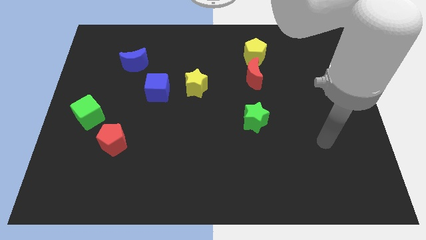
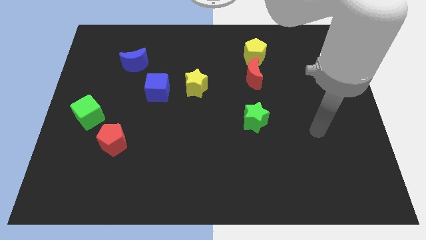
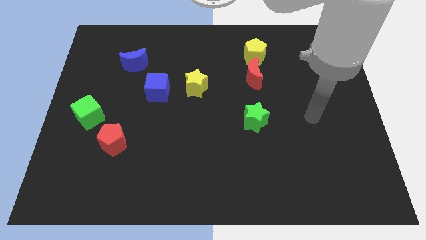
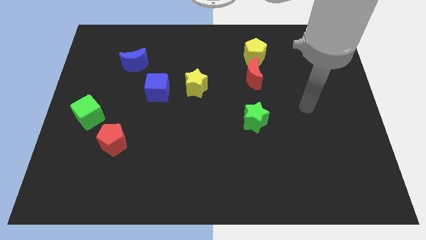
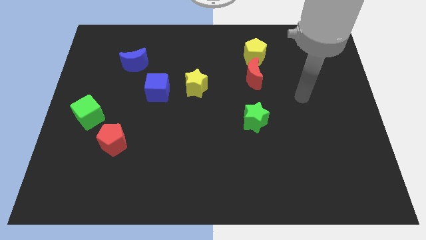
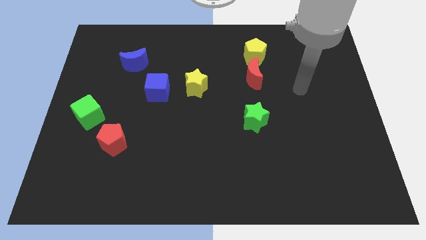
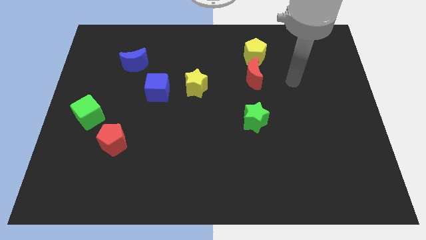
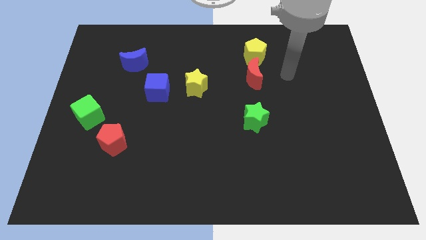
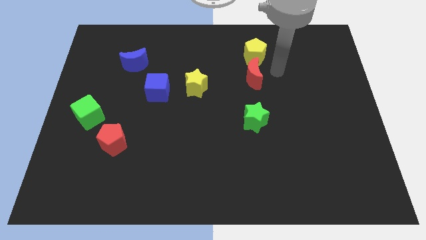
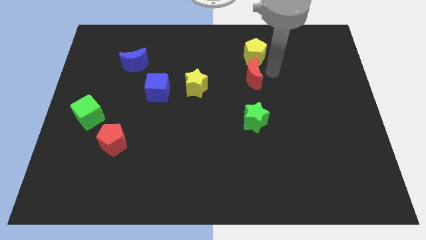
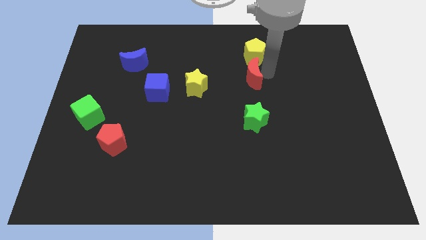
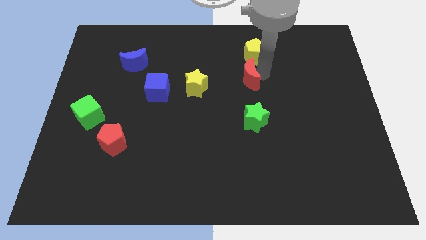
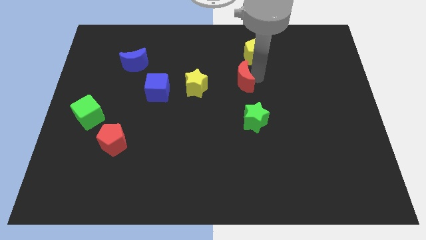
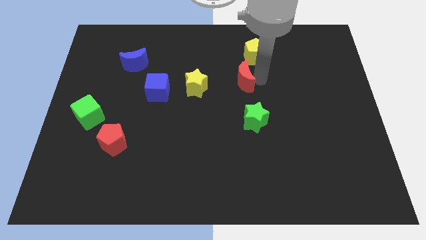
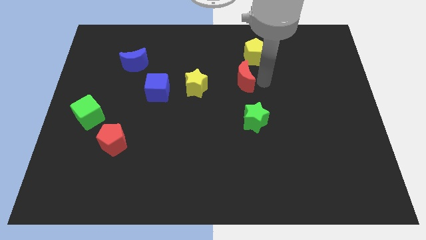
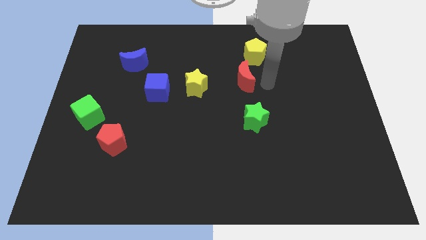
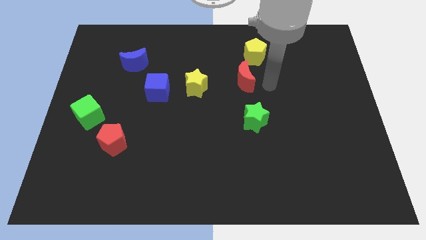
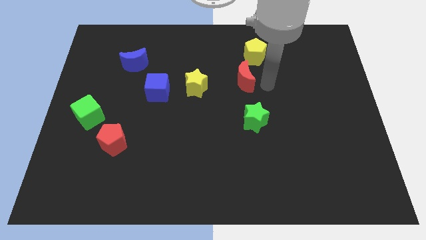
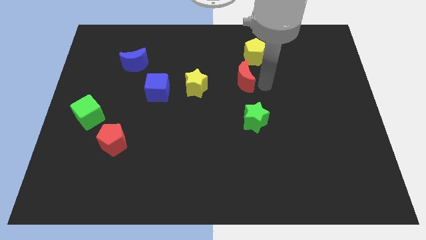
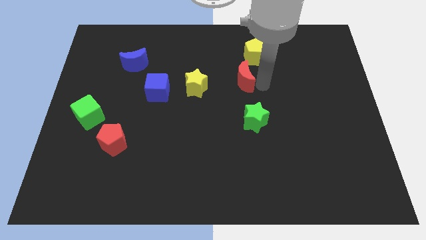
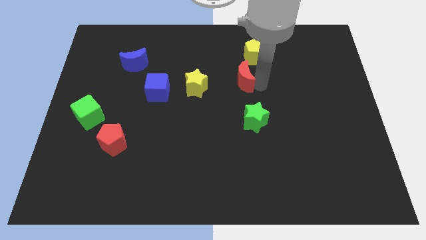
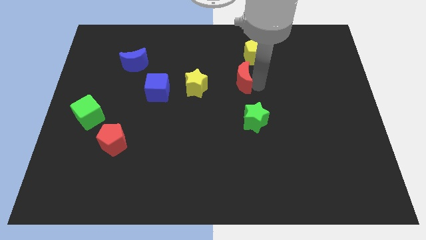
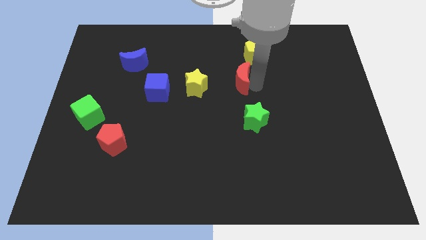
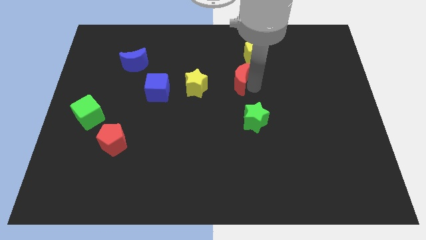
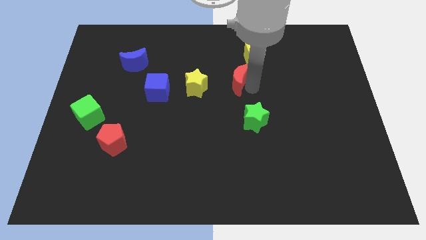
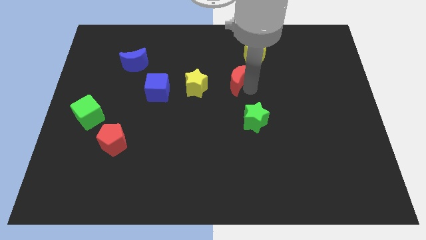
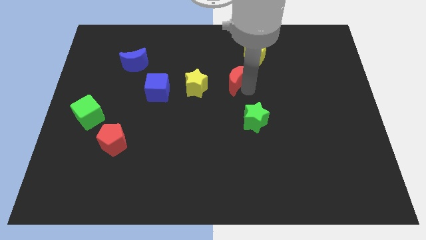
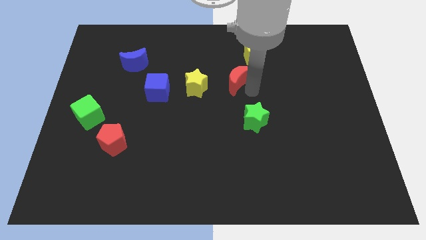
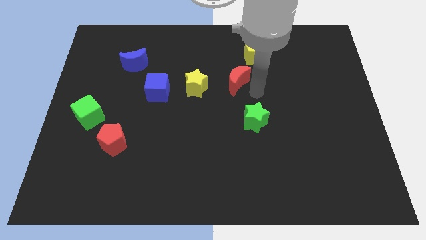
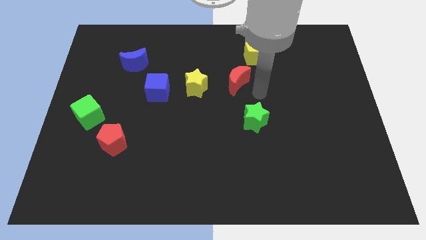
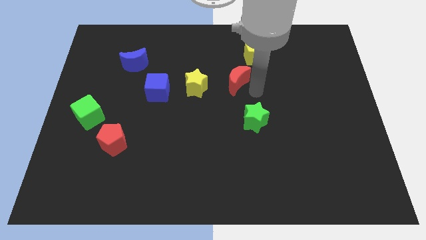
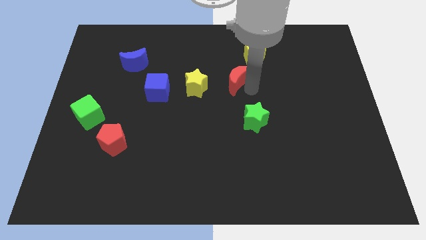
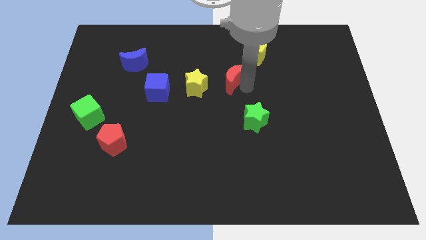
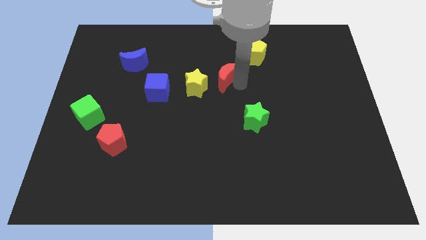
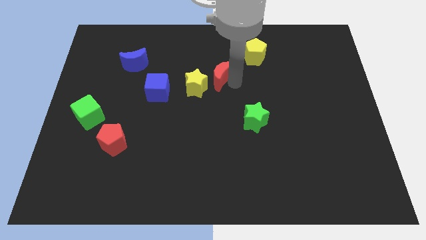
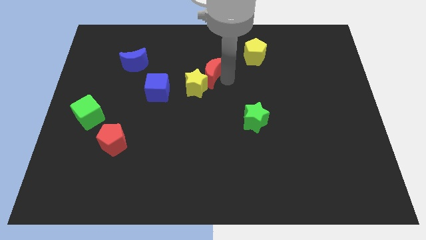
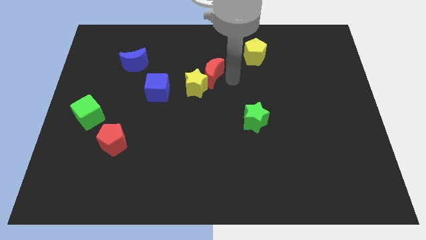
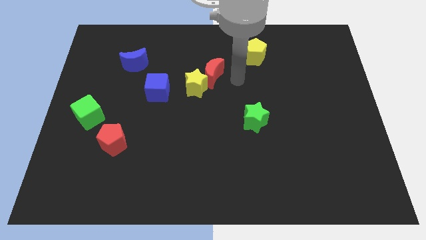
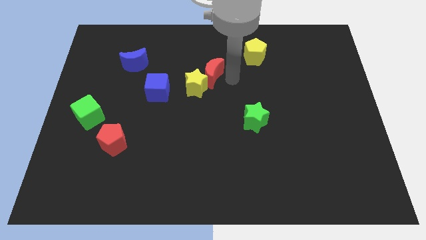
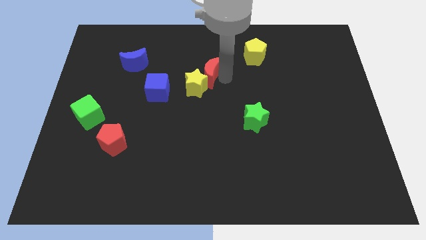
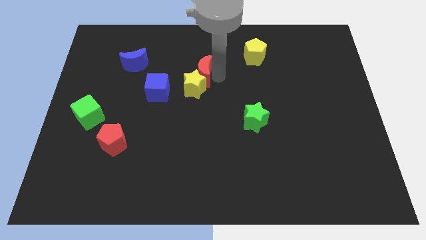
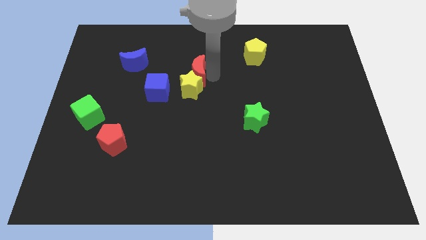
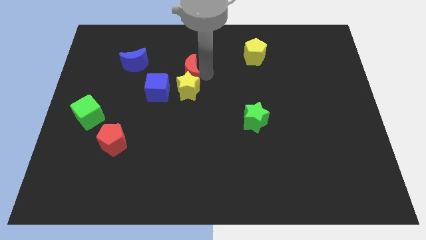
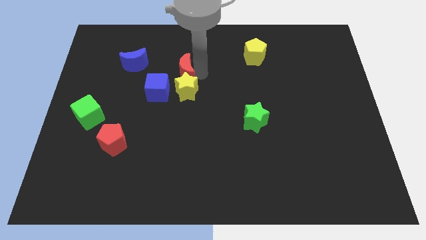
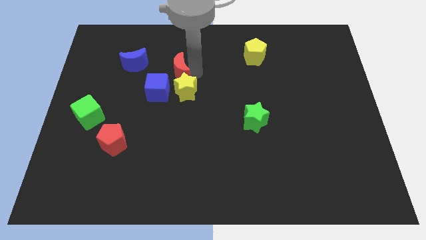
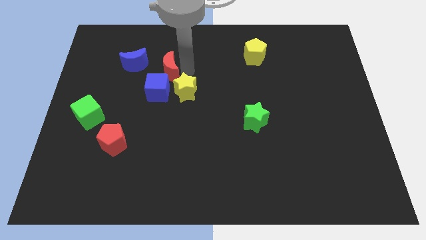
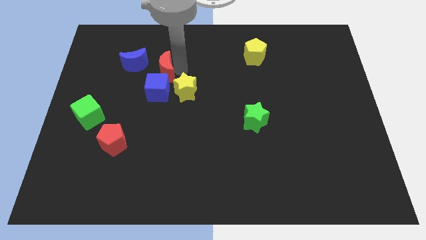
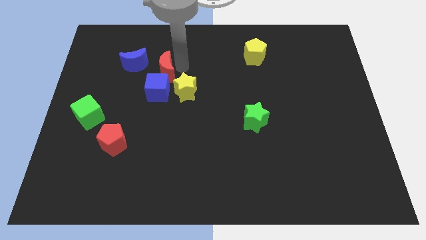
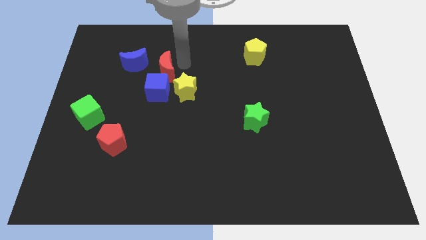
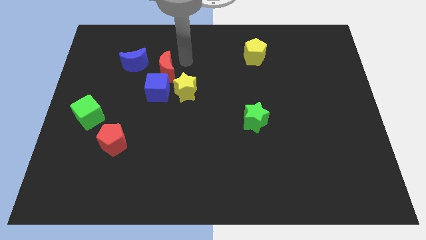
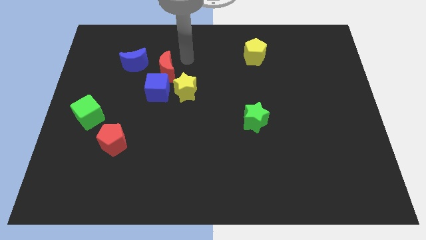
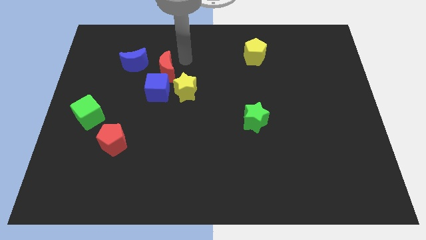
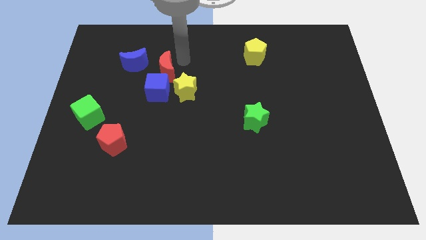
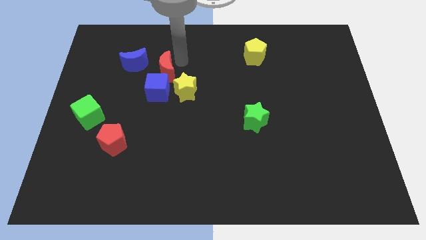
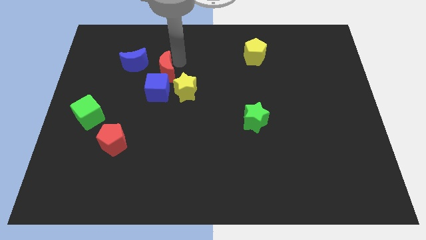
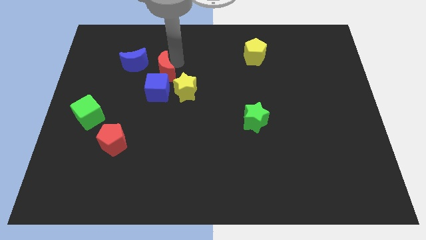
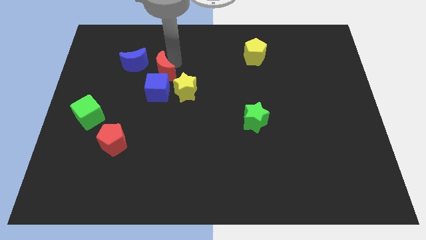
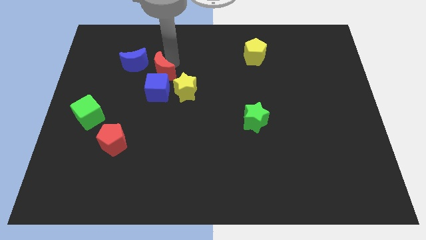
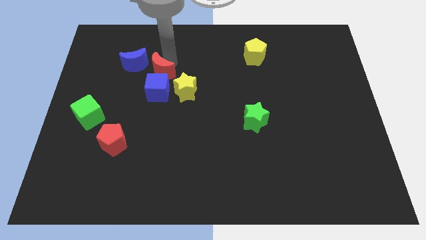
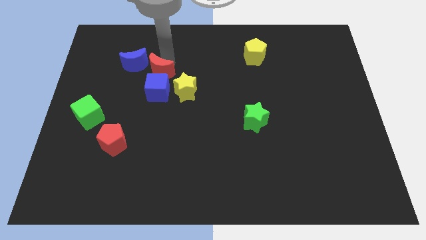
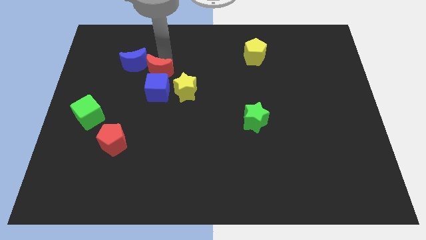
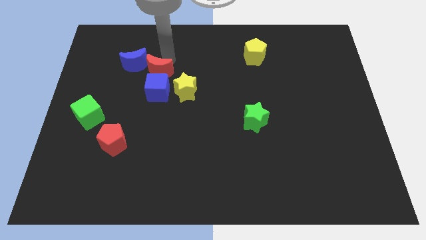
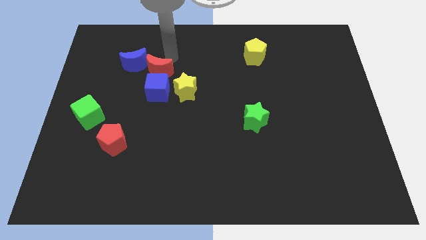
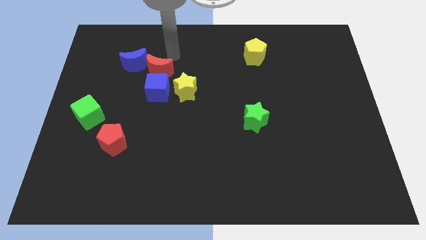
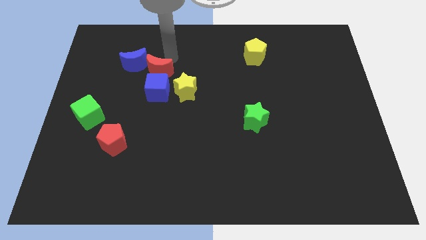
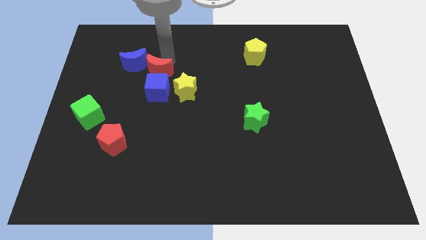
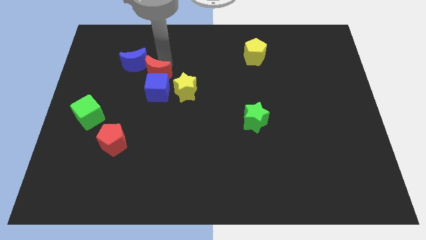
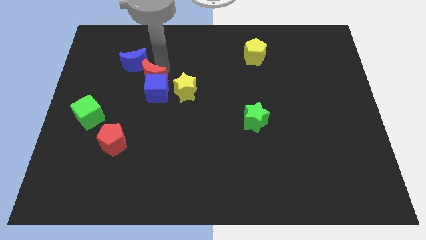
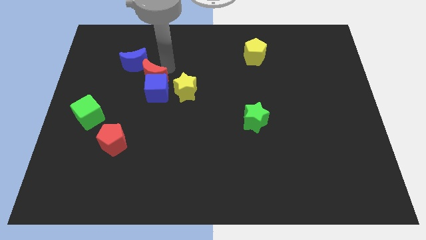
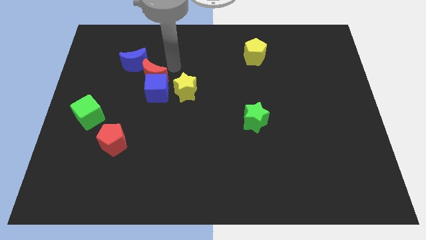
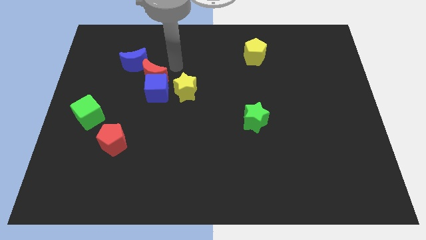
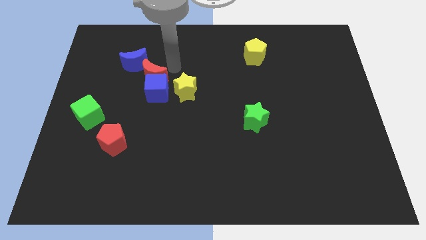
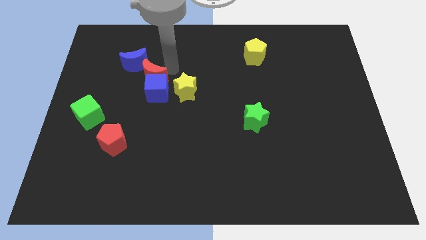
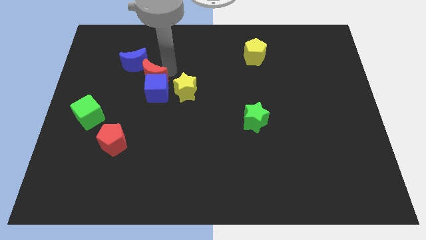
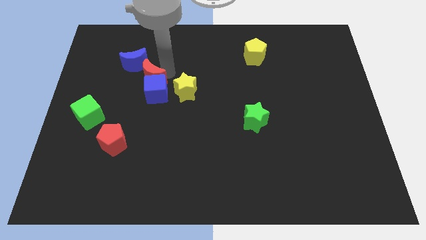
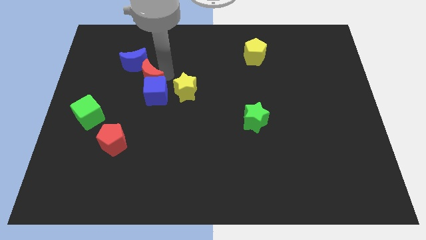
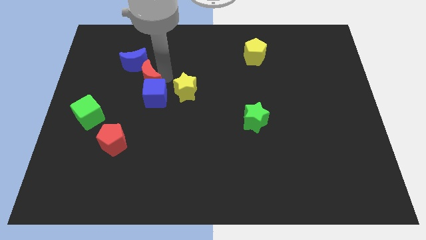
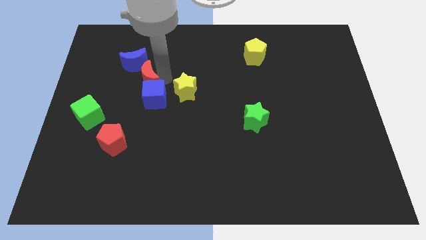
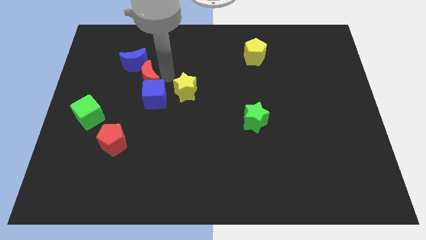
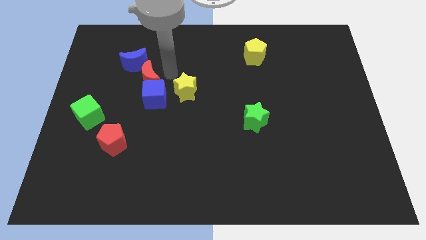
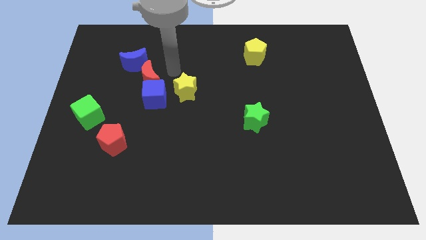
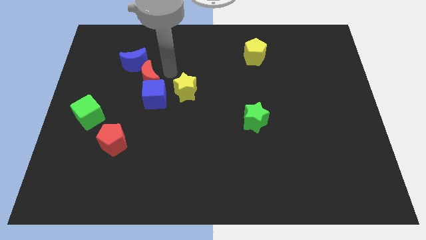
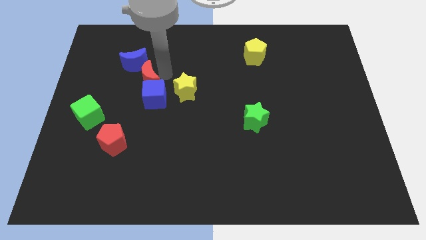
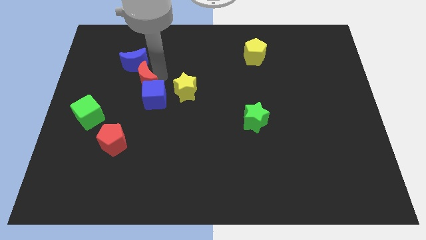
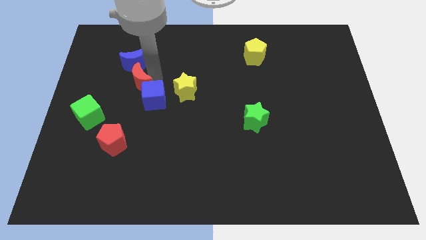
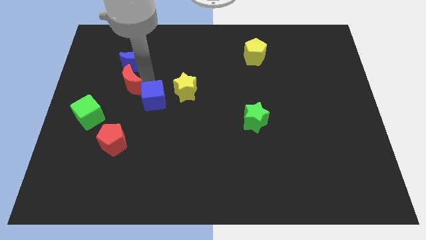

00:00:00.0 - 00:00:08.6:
slide the red moon to the left of the blue cube
